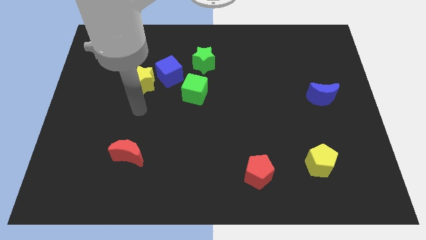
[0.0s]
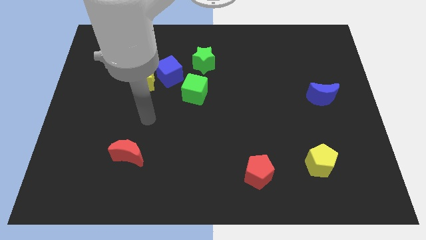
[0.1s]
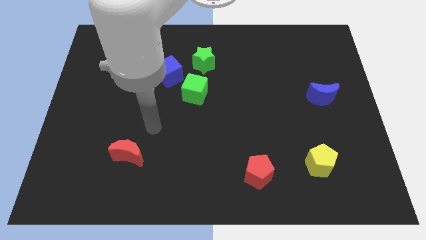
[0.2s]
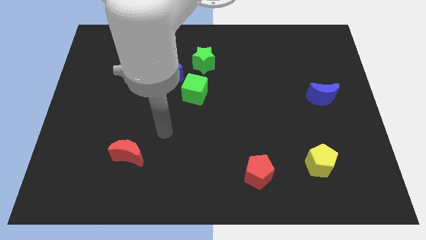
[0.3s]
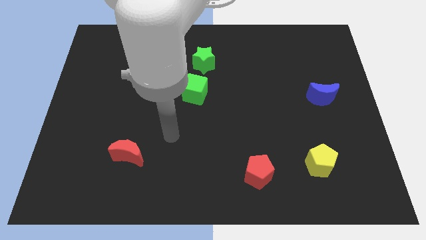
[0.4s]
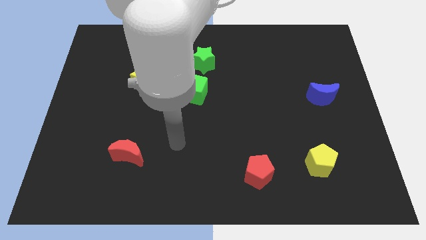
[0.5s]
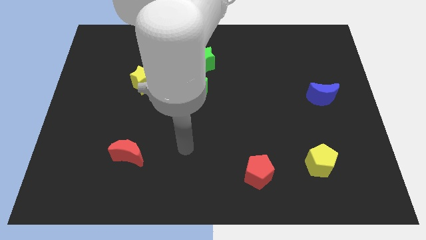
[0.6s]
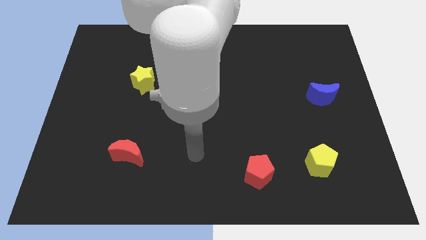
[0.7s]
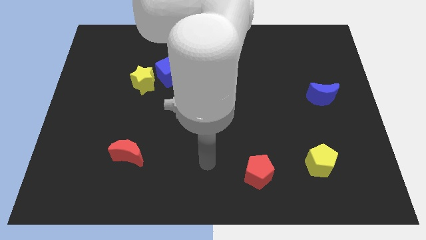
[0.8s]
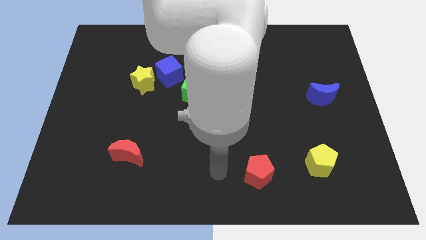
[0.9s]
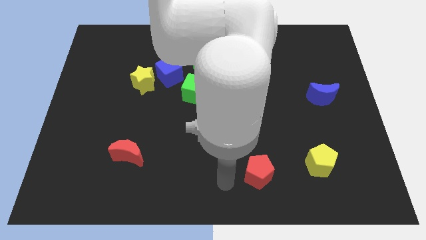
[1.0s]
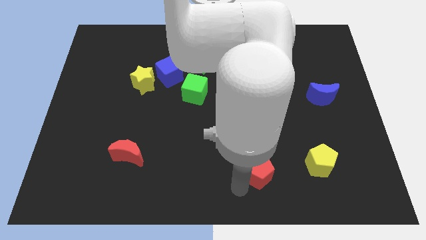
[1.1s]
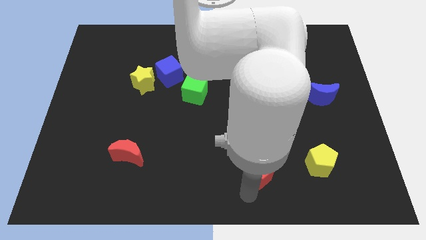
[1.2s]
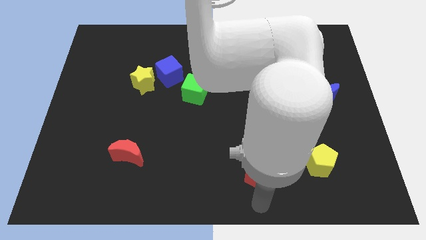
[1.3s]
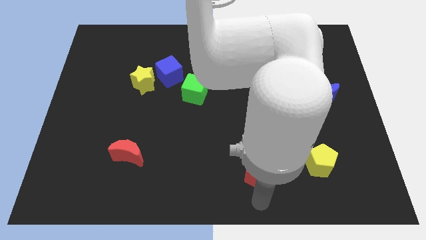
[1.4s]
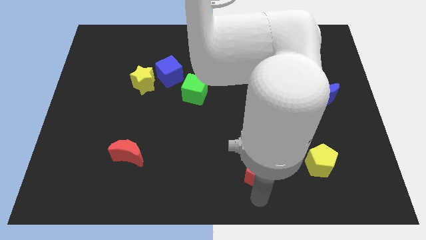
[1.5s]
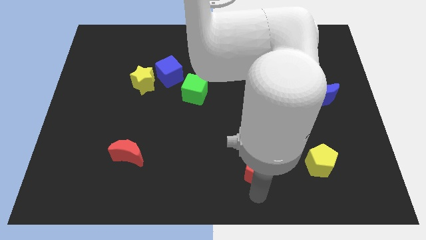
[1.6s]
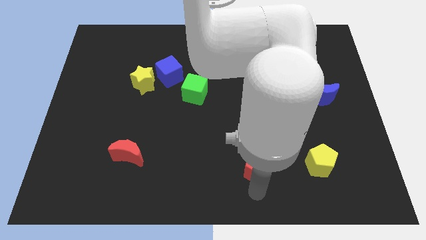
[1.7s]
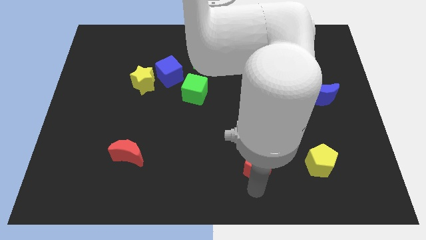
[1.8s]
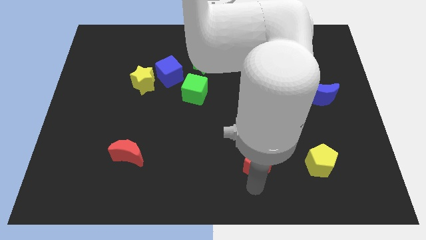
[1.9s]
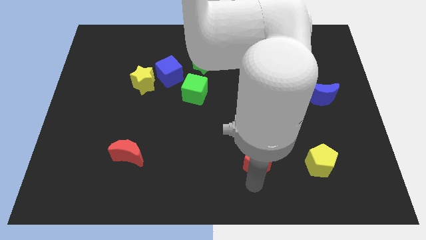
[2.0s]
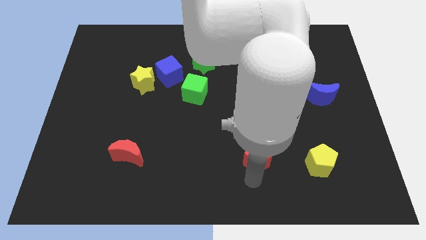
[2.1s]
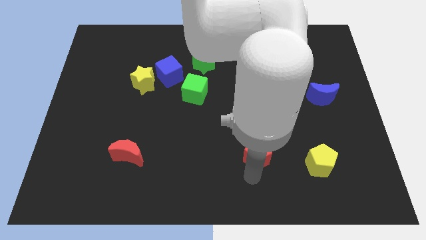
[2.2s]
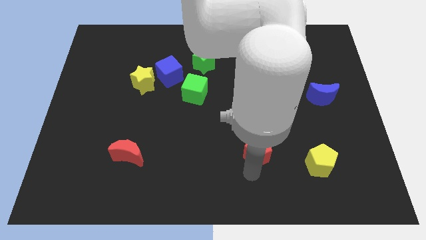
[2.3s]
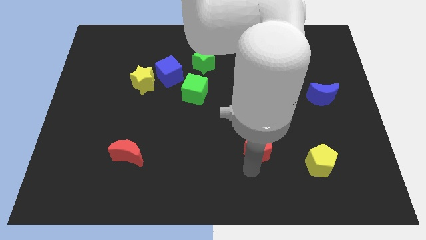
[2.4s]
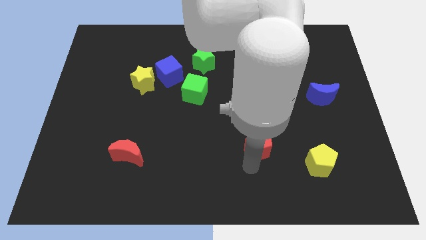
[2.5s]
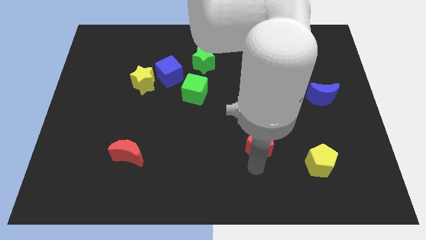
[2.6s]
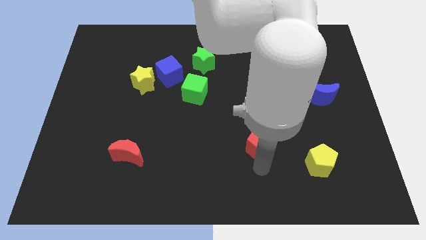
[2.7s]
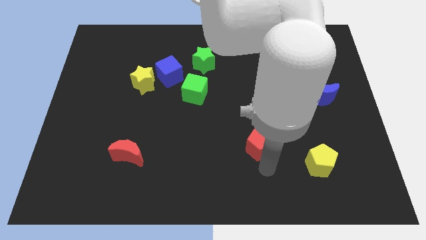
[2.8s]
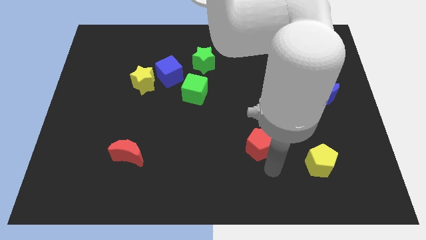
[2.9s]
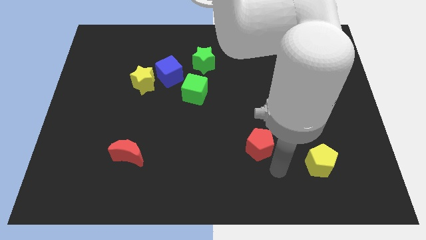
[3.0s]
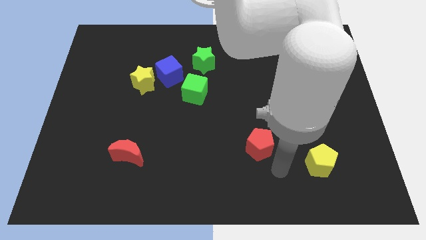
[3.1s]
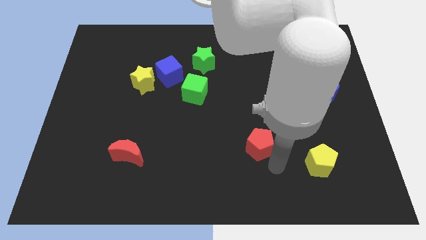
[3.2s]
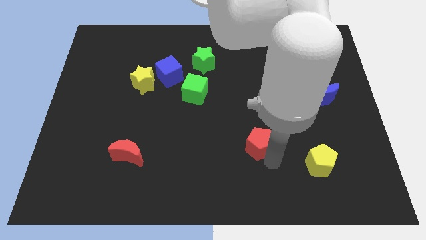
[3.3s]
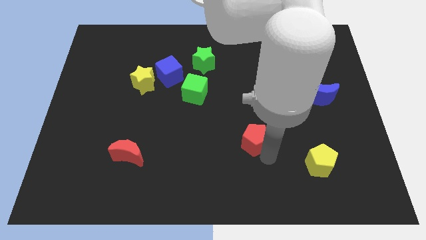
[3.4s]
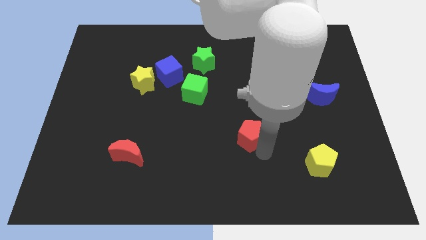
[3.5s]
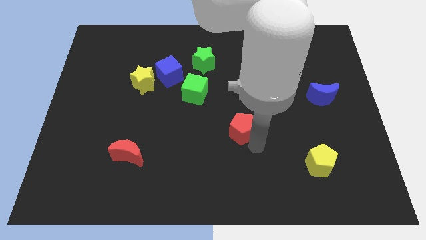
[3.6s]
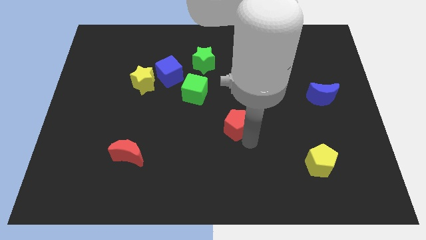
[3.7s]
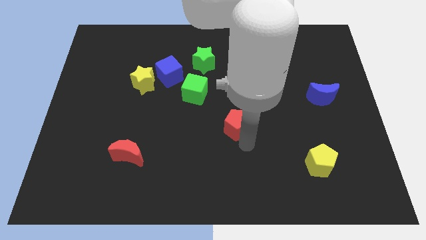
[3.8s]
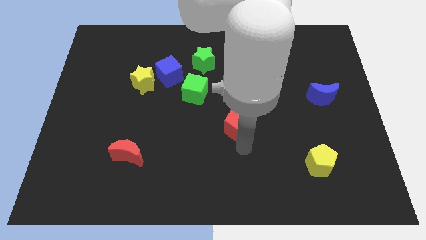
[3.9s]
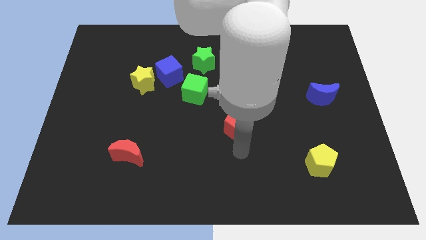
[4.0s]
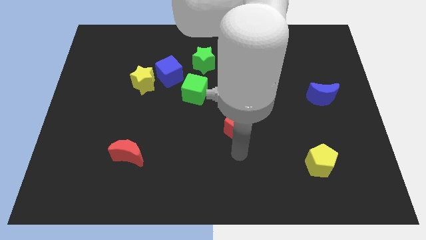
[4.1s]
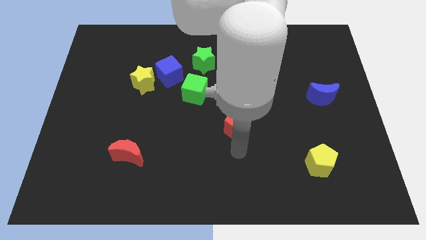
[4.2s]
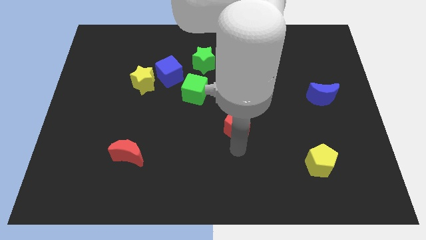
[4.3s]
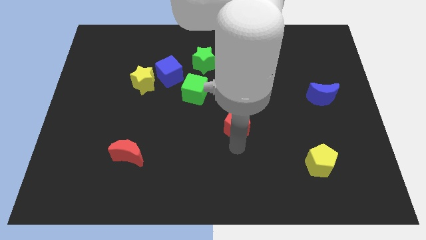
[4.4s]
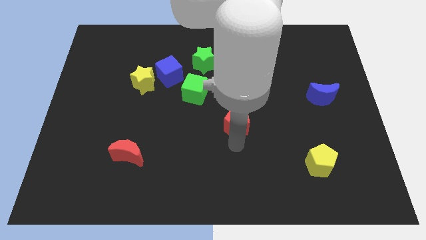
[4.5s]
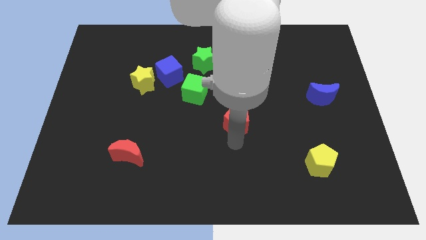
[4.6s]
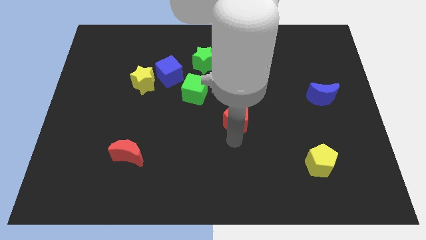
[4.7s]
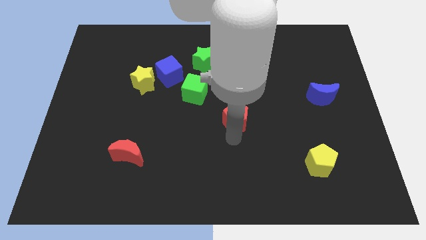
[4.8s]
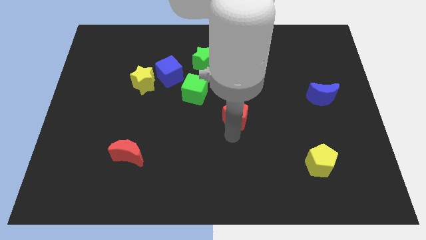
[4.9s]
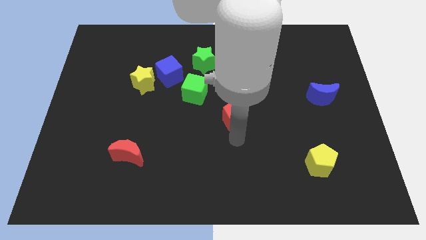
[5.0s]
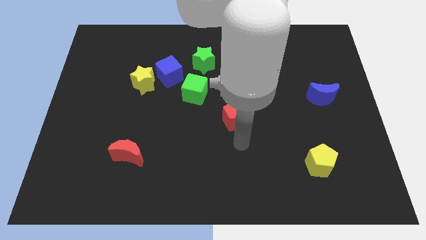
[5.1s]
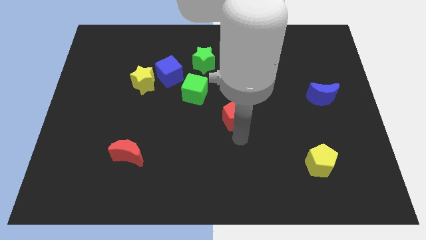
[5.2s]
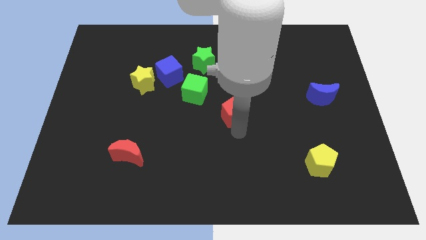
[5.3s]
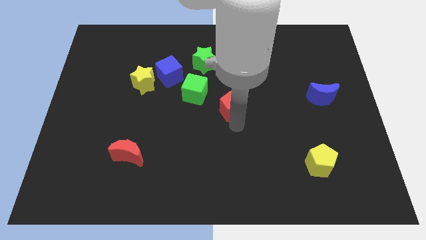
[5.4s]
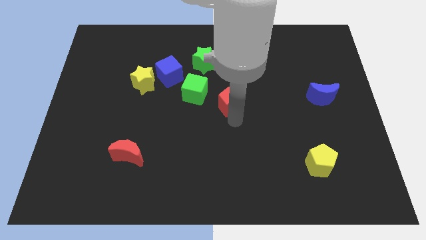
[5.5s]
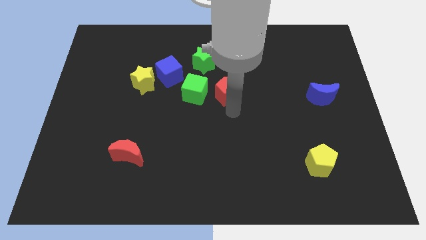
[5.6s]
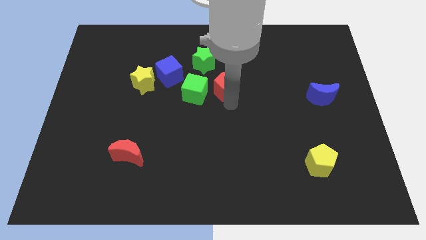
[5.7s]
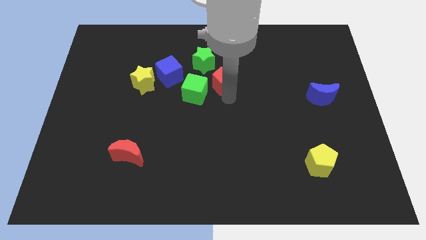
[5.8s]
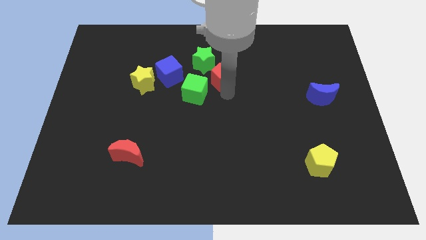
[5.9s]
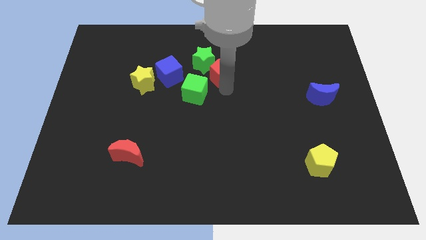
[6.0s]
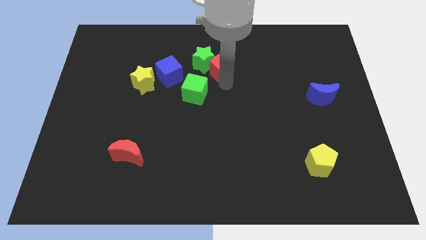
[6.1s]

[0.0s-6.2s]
push the red pentagon close to the green star

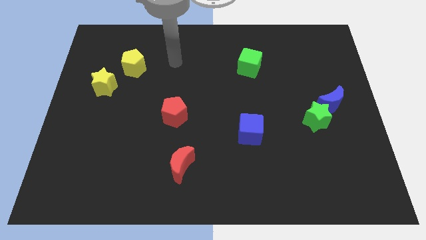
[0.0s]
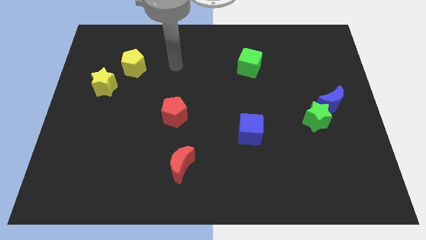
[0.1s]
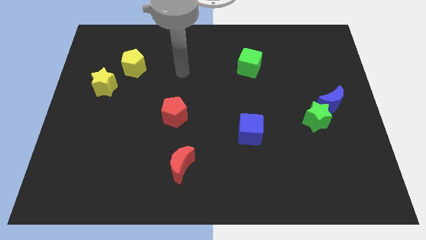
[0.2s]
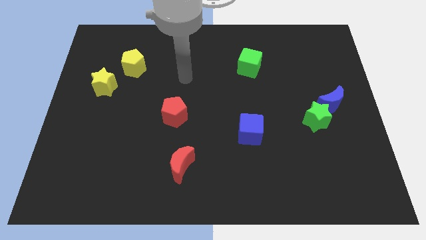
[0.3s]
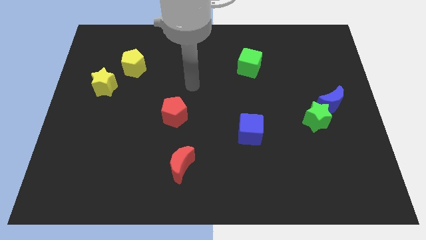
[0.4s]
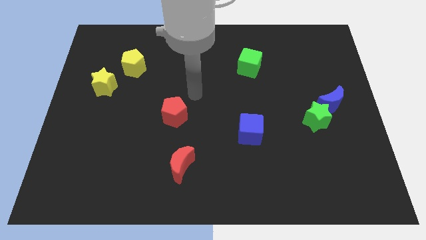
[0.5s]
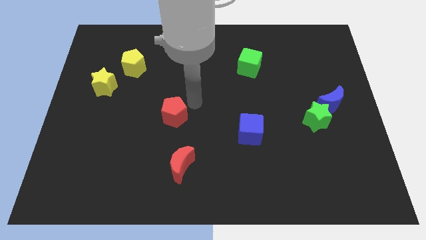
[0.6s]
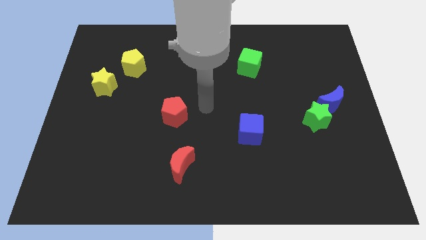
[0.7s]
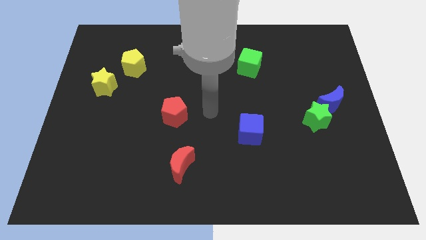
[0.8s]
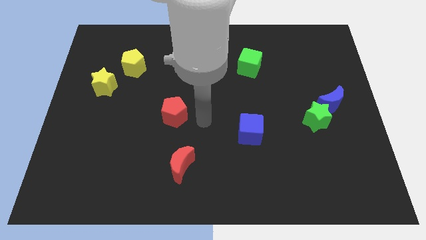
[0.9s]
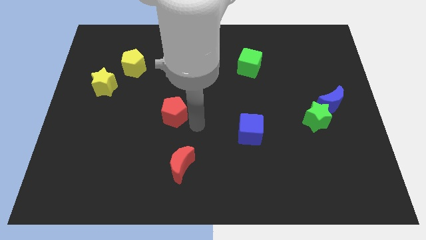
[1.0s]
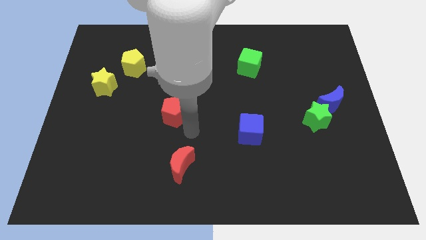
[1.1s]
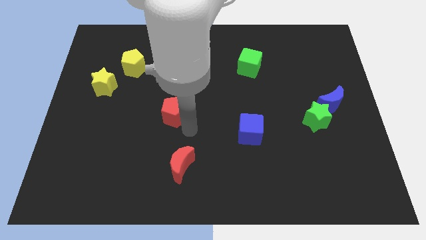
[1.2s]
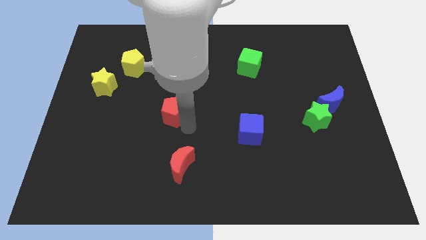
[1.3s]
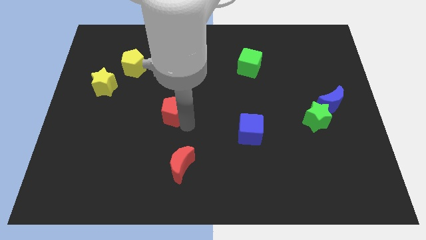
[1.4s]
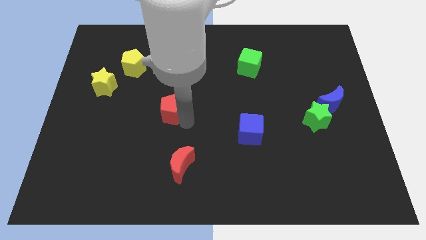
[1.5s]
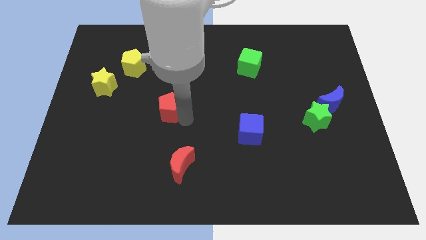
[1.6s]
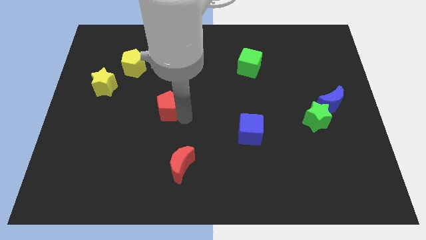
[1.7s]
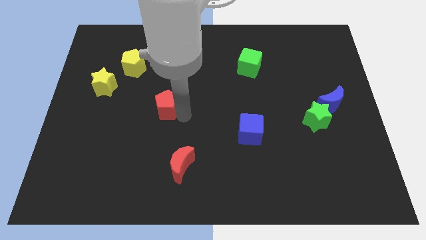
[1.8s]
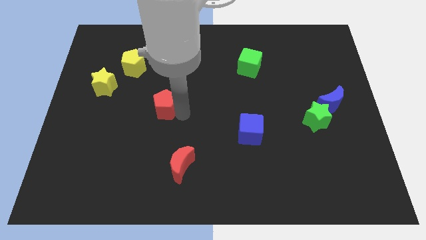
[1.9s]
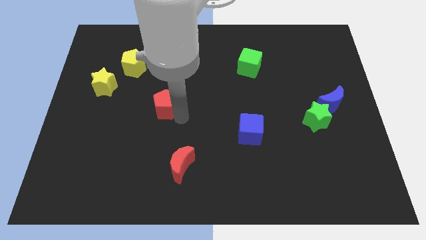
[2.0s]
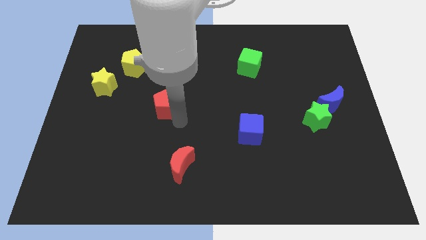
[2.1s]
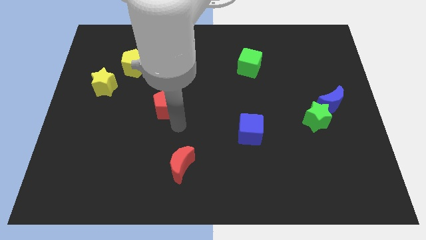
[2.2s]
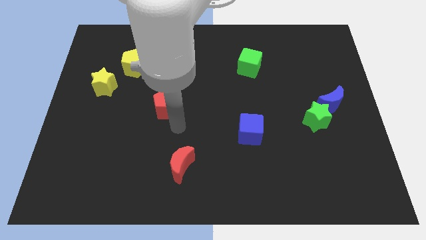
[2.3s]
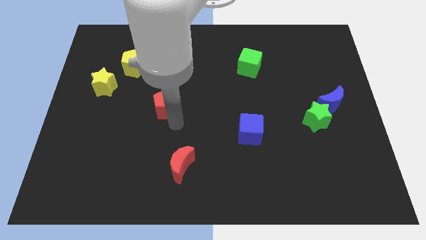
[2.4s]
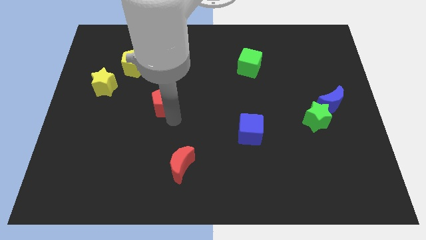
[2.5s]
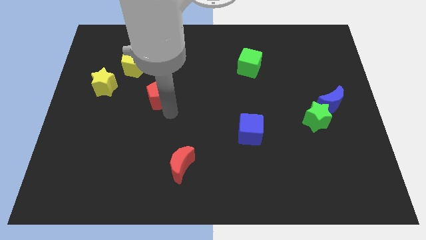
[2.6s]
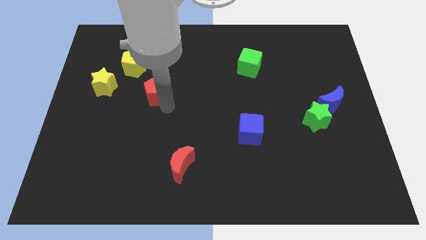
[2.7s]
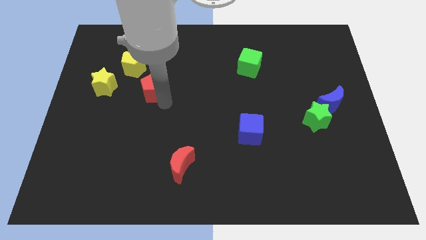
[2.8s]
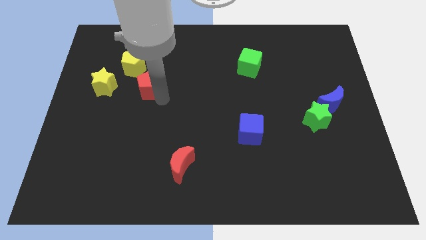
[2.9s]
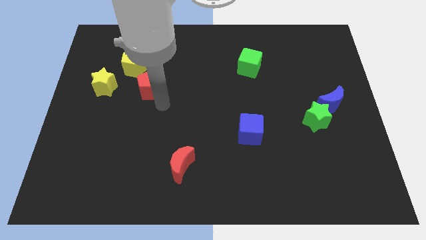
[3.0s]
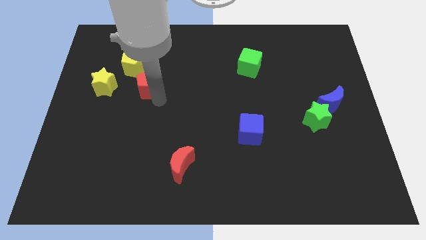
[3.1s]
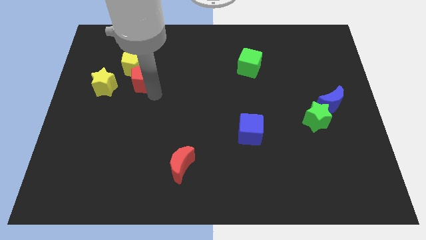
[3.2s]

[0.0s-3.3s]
slide the red pentagon next to the yellow pentagon
